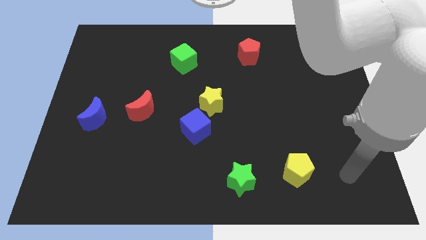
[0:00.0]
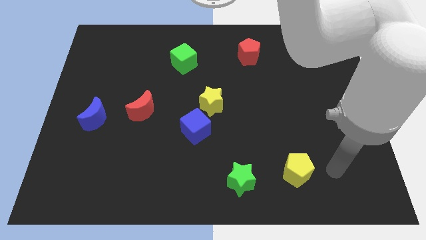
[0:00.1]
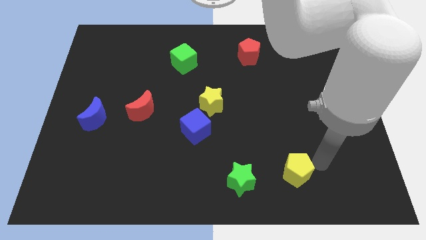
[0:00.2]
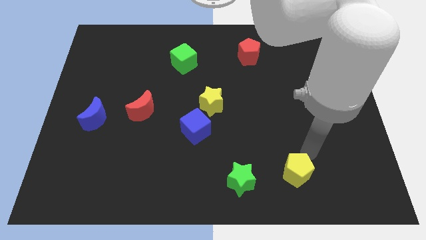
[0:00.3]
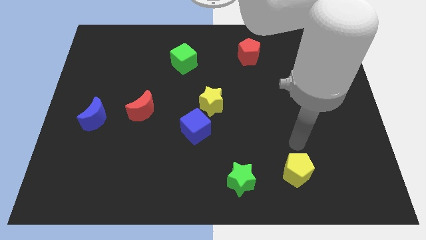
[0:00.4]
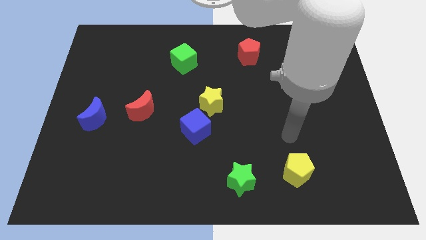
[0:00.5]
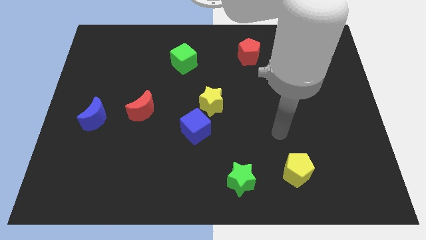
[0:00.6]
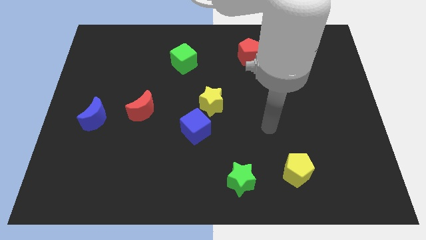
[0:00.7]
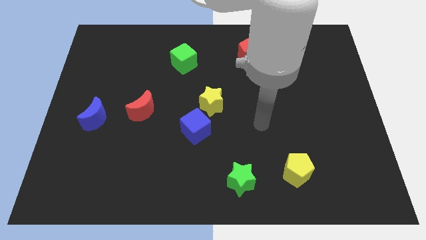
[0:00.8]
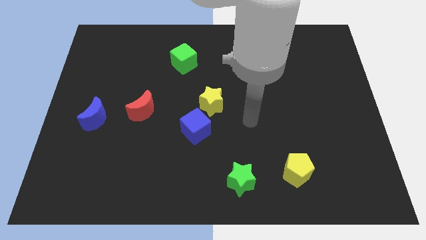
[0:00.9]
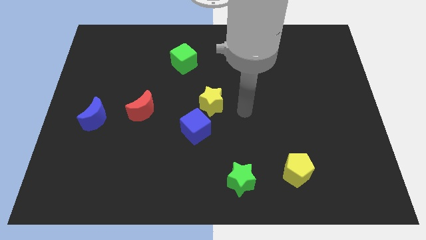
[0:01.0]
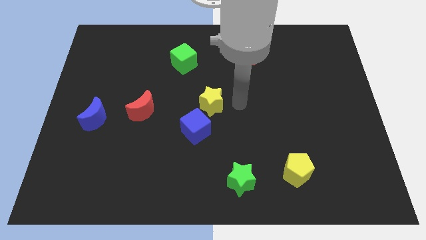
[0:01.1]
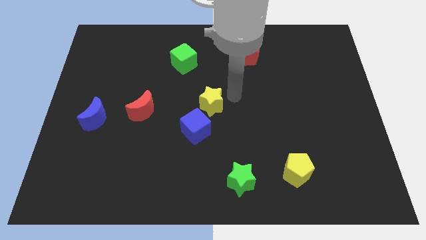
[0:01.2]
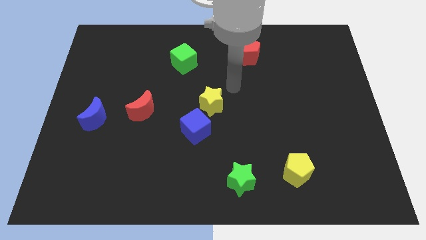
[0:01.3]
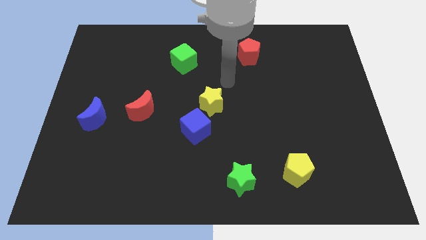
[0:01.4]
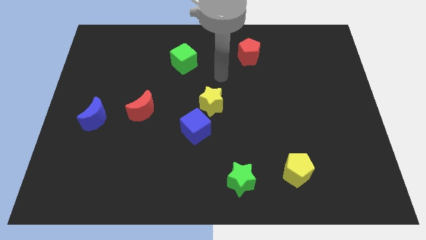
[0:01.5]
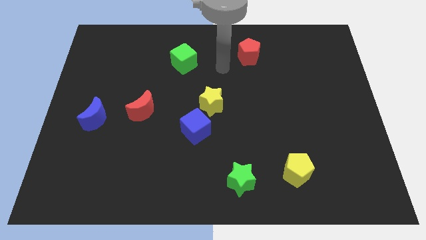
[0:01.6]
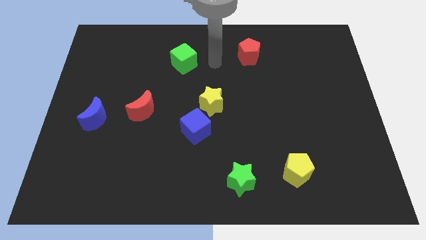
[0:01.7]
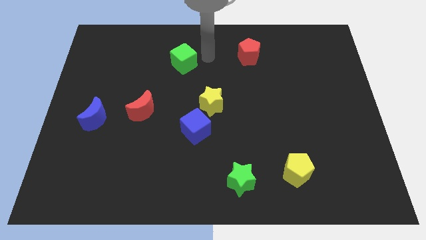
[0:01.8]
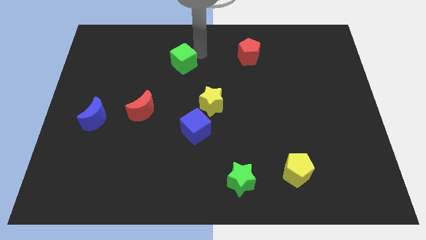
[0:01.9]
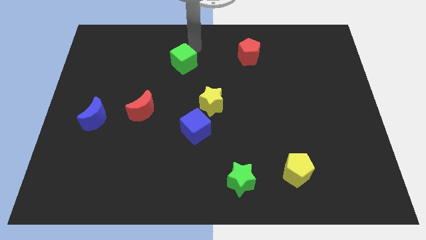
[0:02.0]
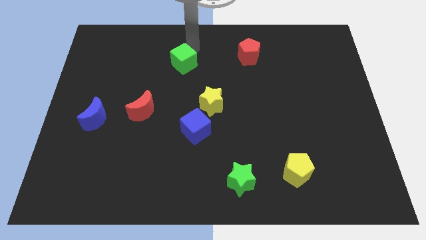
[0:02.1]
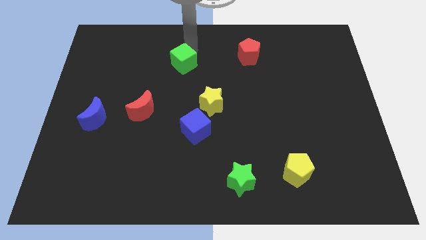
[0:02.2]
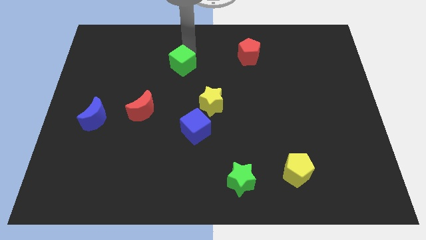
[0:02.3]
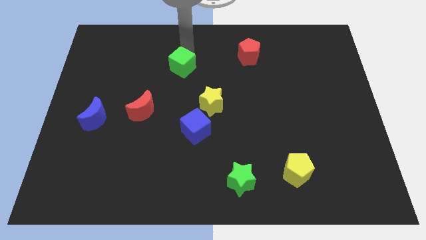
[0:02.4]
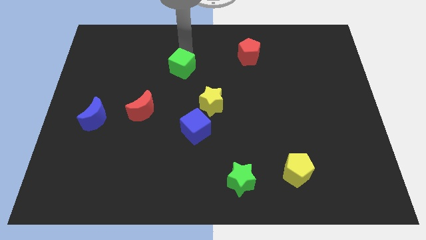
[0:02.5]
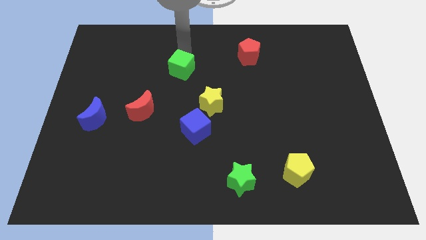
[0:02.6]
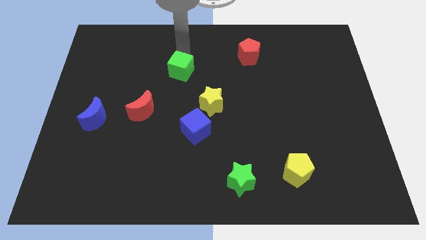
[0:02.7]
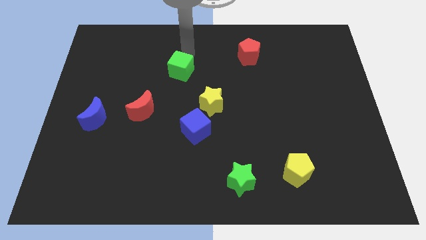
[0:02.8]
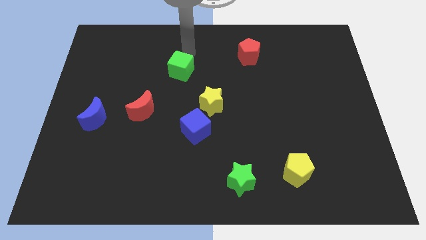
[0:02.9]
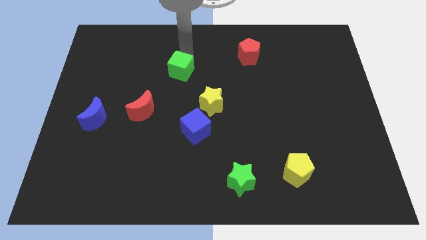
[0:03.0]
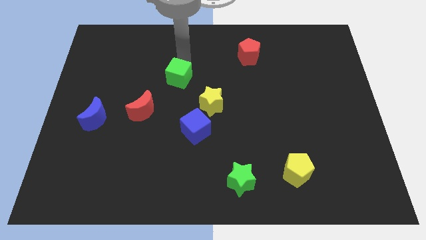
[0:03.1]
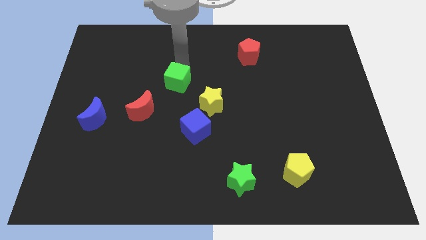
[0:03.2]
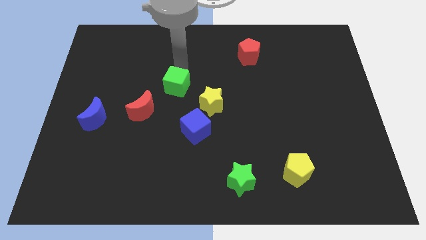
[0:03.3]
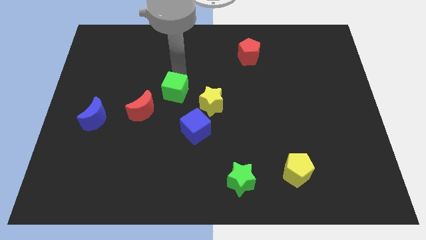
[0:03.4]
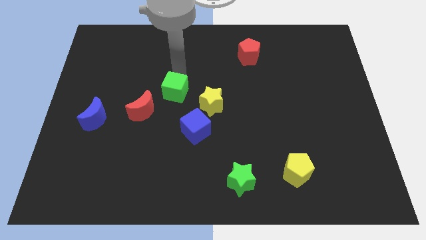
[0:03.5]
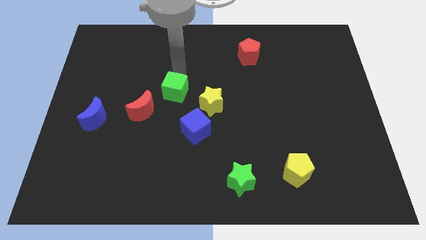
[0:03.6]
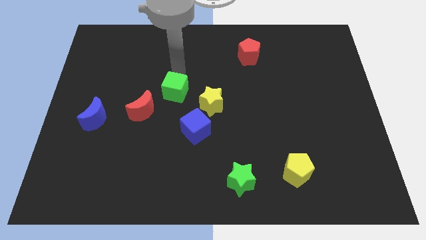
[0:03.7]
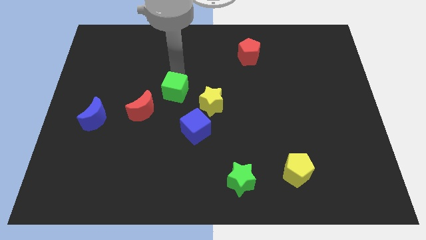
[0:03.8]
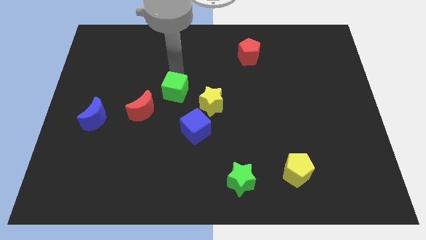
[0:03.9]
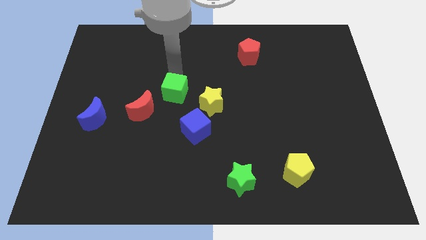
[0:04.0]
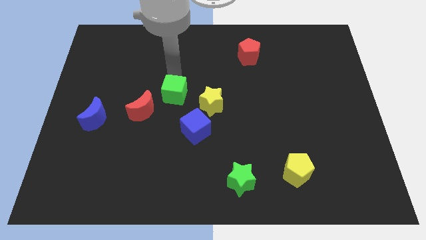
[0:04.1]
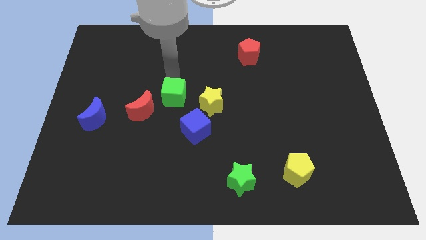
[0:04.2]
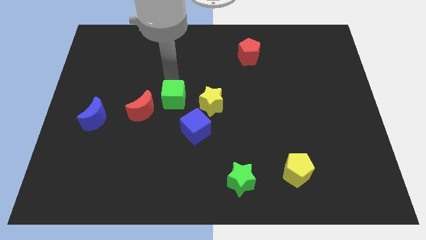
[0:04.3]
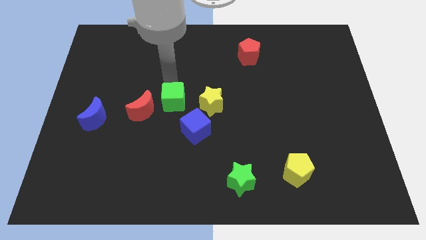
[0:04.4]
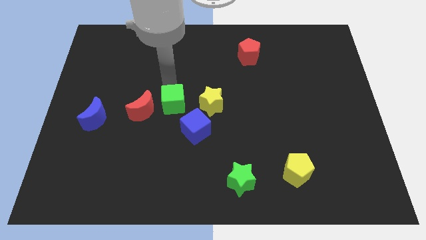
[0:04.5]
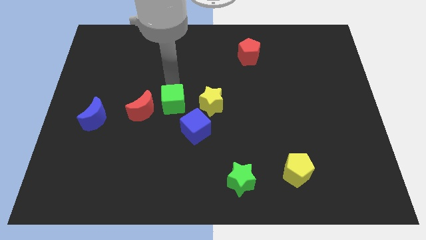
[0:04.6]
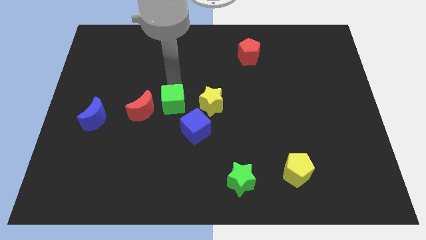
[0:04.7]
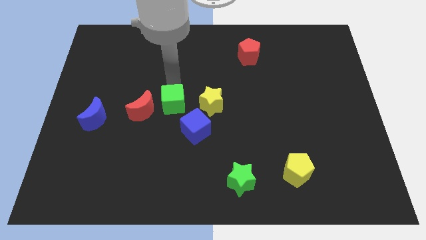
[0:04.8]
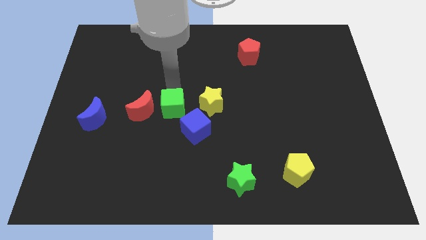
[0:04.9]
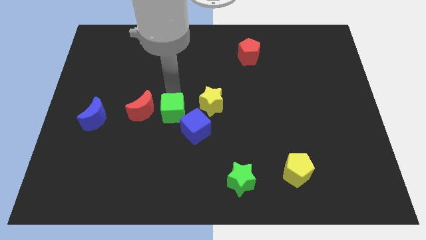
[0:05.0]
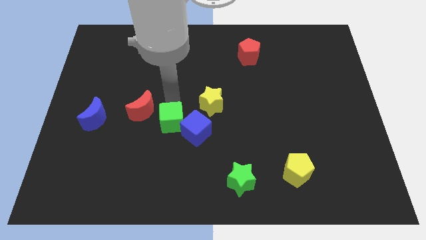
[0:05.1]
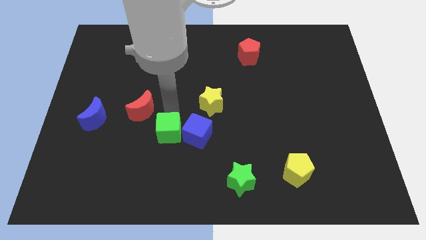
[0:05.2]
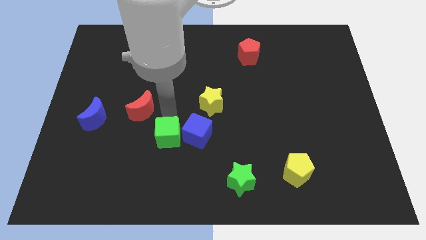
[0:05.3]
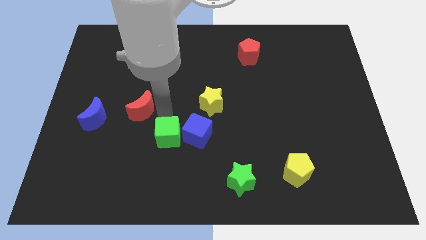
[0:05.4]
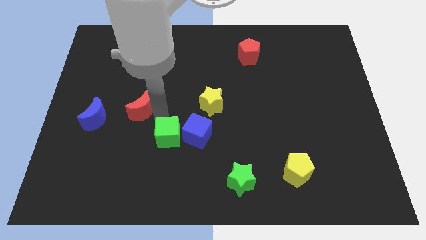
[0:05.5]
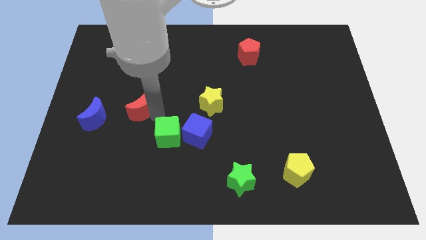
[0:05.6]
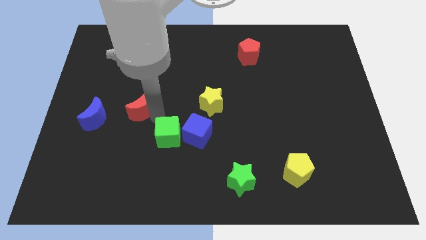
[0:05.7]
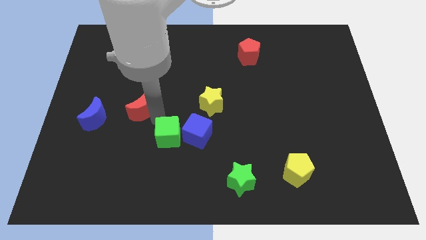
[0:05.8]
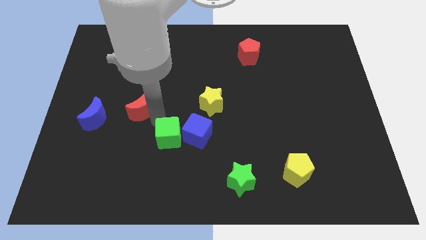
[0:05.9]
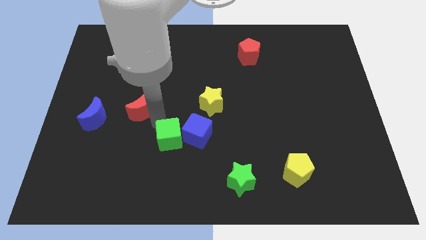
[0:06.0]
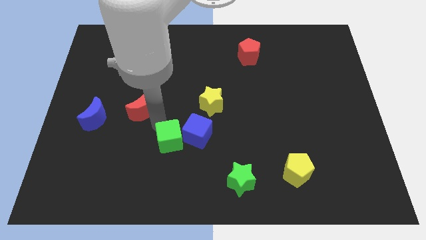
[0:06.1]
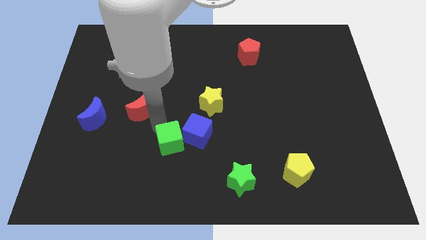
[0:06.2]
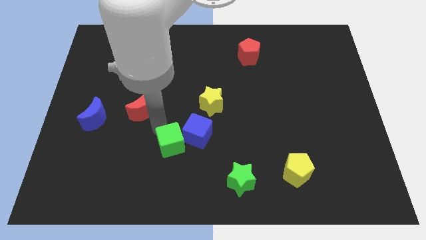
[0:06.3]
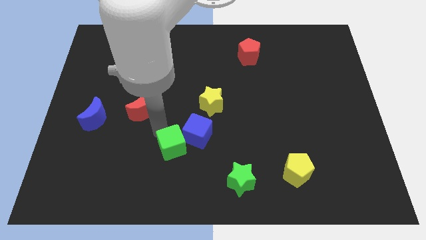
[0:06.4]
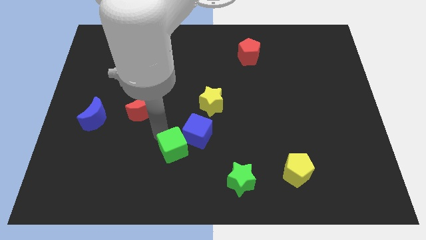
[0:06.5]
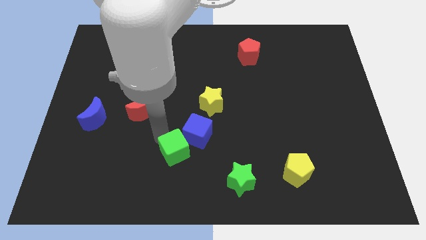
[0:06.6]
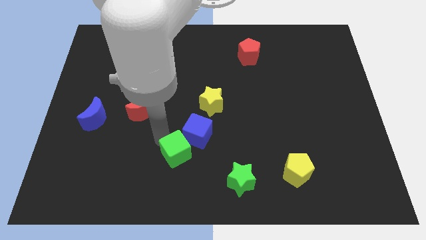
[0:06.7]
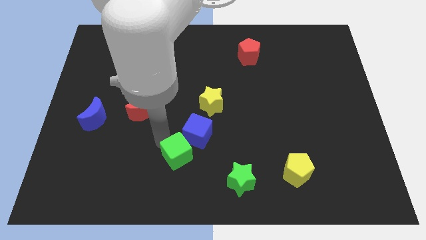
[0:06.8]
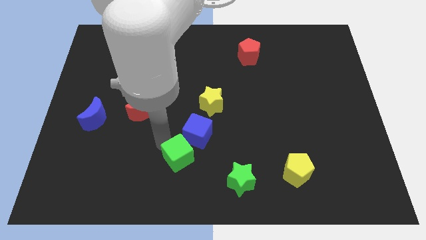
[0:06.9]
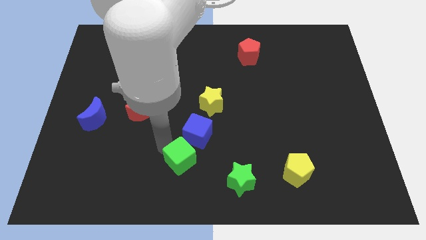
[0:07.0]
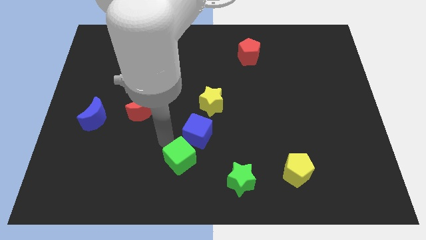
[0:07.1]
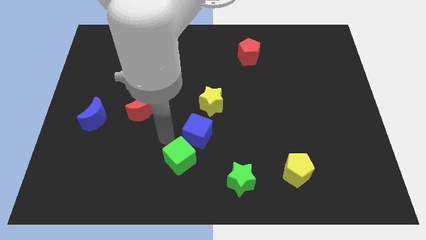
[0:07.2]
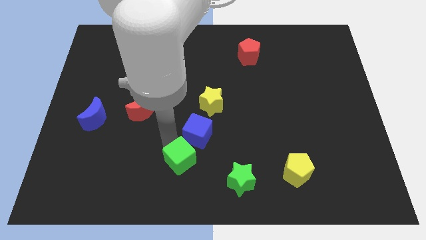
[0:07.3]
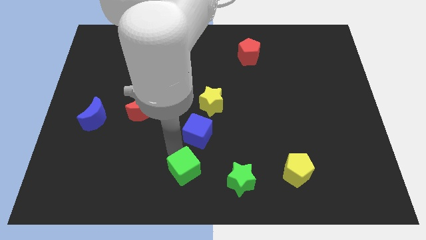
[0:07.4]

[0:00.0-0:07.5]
put the green cube to the bottom
